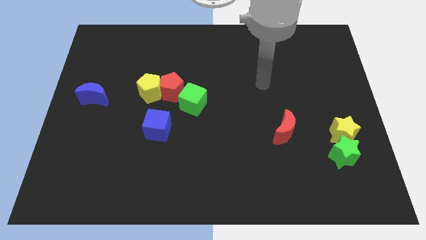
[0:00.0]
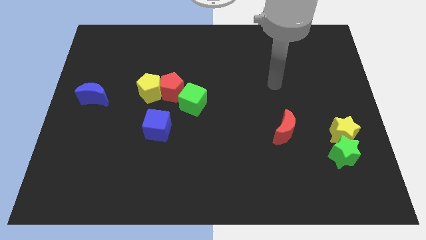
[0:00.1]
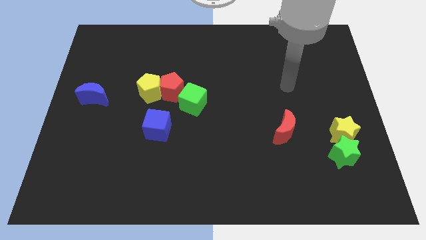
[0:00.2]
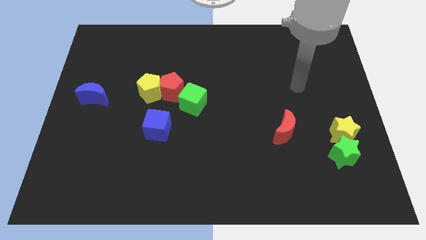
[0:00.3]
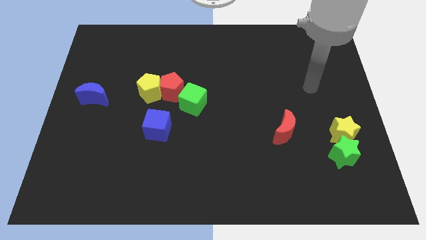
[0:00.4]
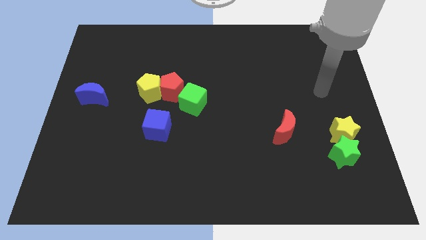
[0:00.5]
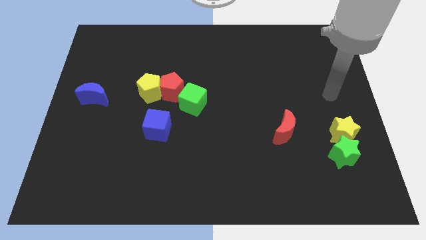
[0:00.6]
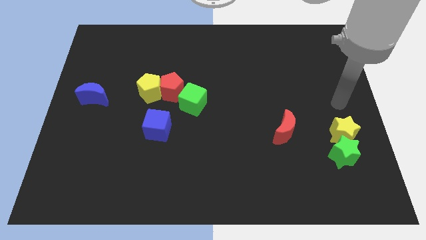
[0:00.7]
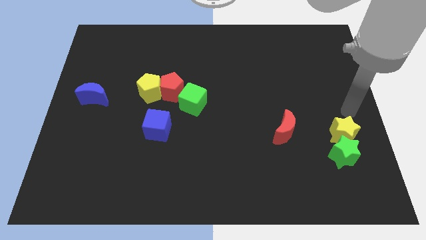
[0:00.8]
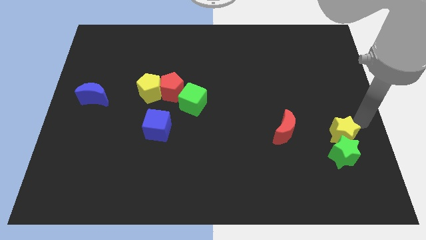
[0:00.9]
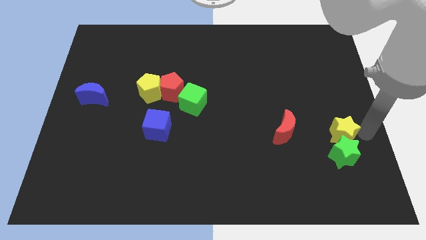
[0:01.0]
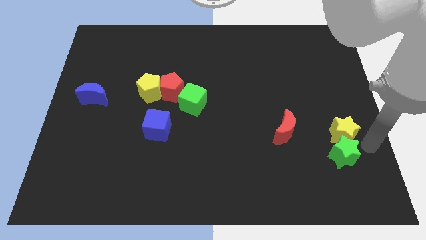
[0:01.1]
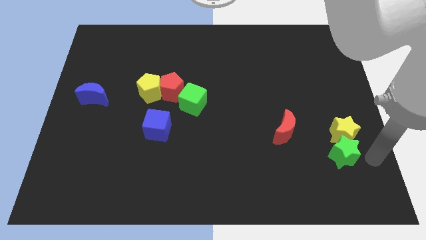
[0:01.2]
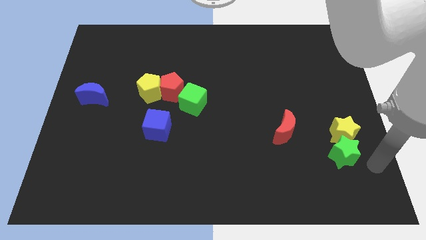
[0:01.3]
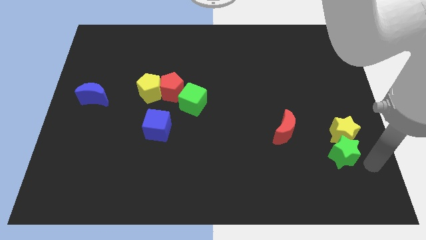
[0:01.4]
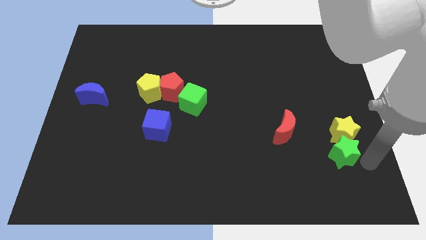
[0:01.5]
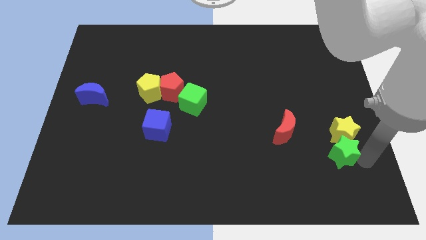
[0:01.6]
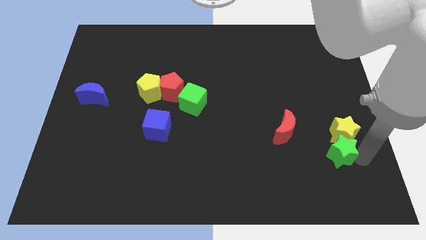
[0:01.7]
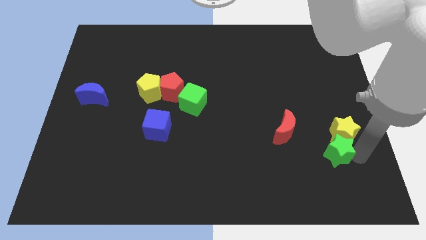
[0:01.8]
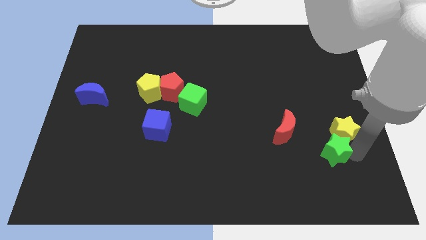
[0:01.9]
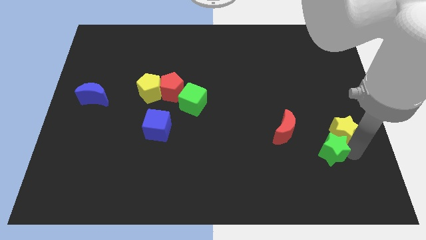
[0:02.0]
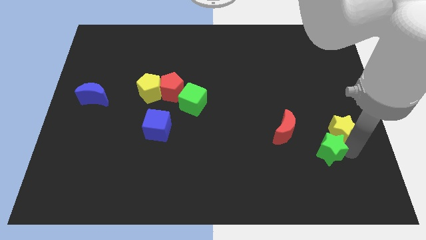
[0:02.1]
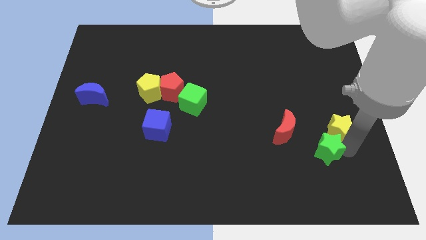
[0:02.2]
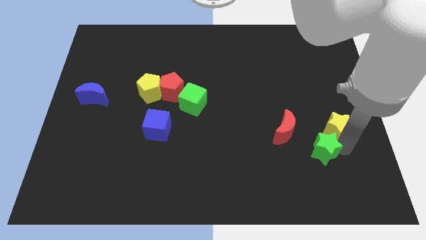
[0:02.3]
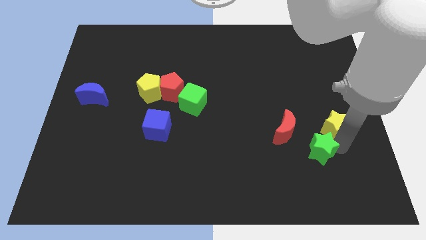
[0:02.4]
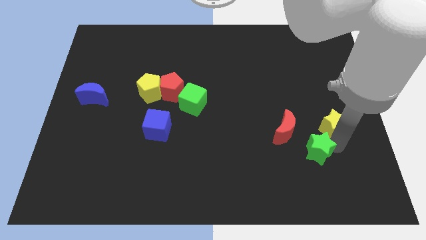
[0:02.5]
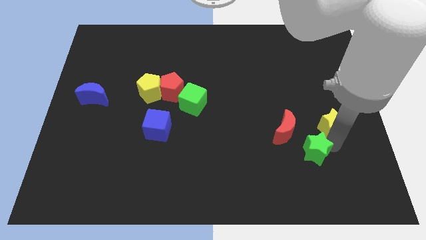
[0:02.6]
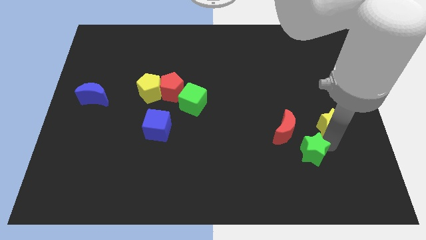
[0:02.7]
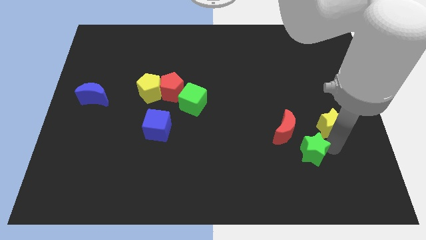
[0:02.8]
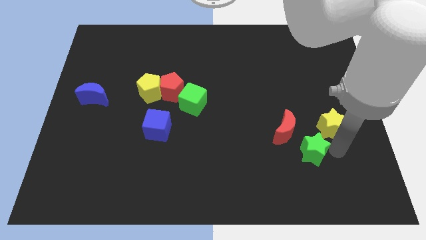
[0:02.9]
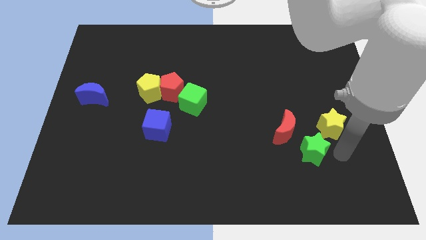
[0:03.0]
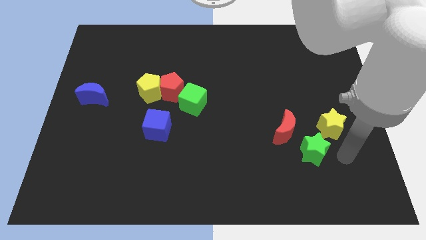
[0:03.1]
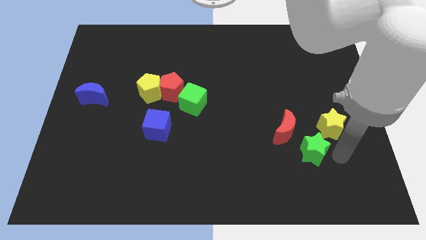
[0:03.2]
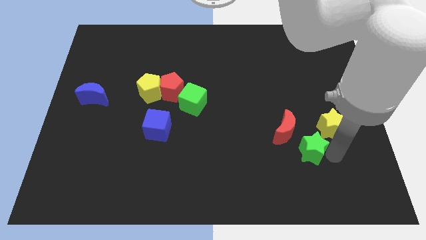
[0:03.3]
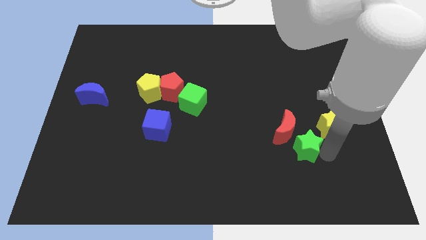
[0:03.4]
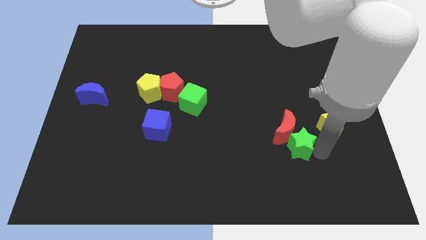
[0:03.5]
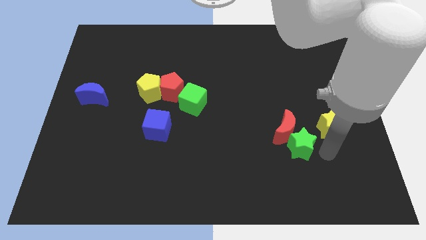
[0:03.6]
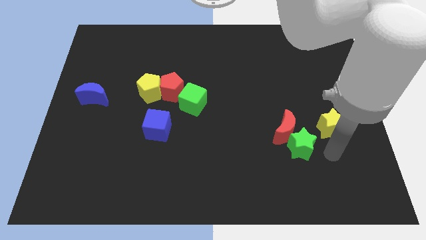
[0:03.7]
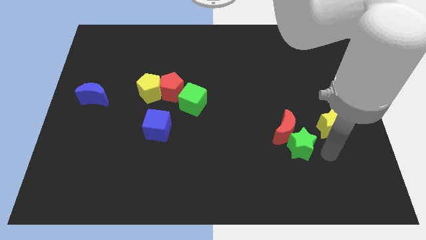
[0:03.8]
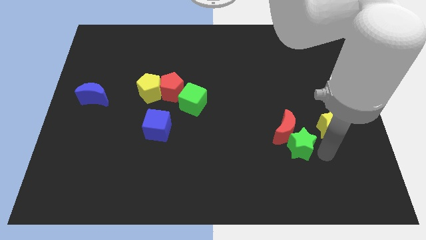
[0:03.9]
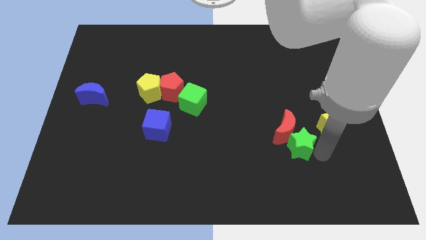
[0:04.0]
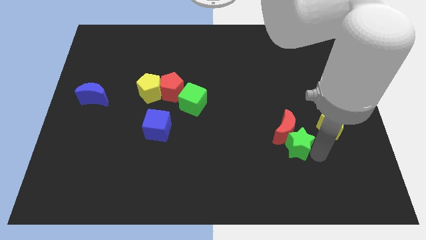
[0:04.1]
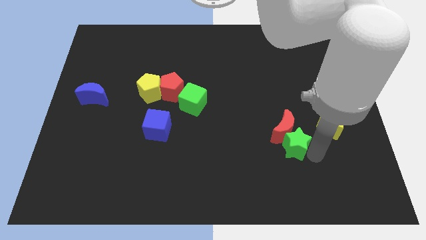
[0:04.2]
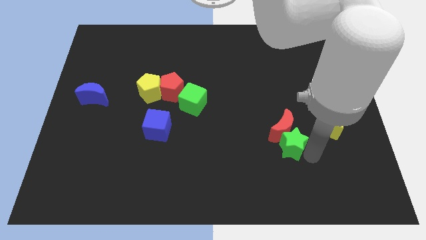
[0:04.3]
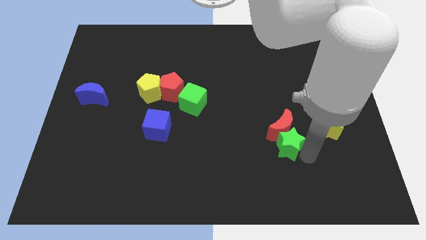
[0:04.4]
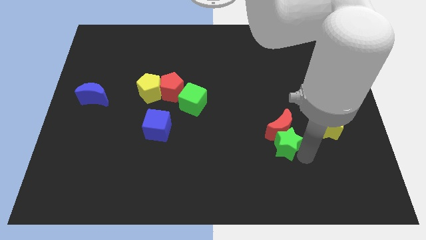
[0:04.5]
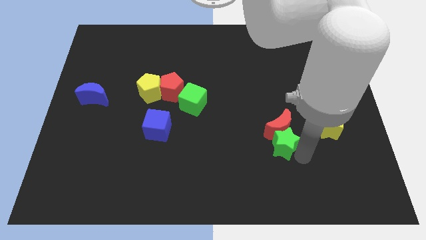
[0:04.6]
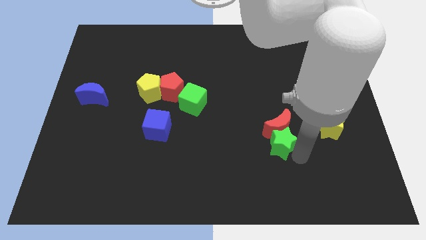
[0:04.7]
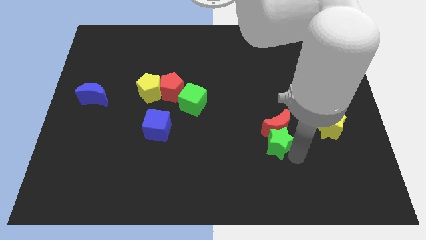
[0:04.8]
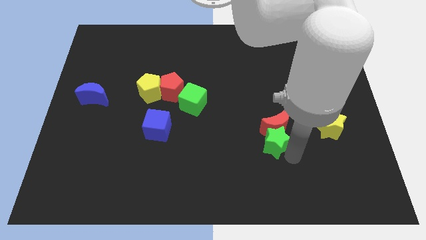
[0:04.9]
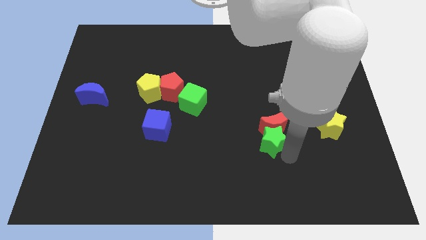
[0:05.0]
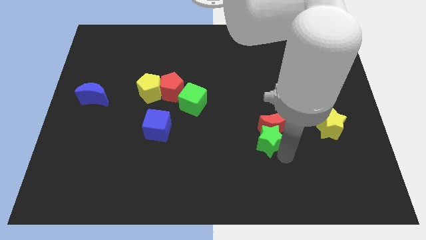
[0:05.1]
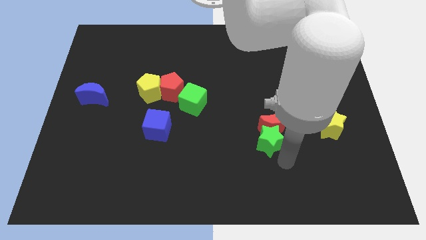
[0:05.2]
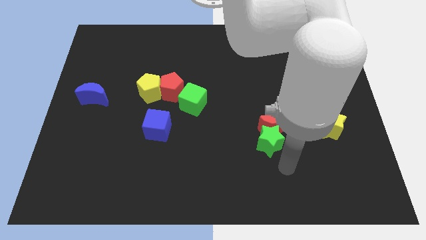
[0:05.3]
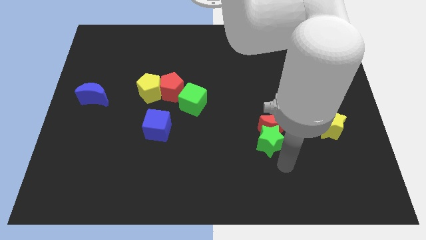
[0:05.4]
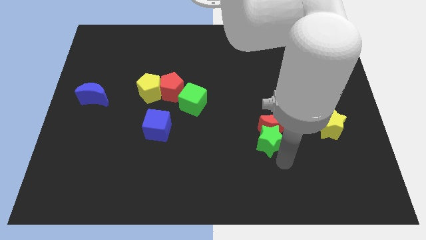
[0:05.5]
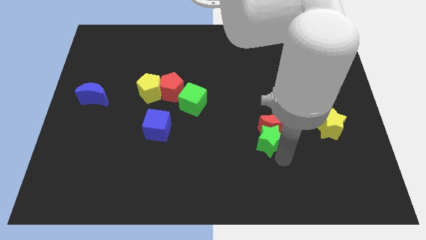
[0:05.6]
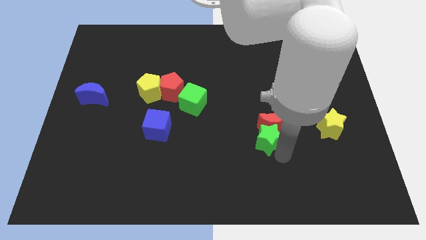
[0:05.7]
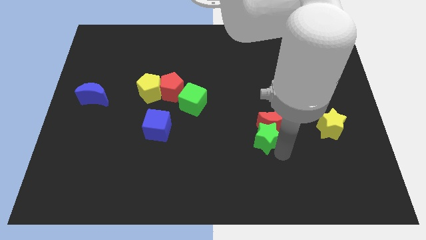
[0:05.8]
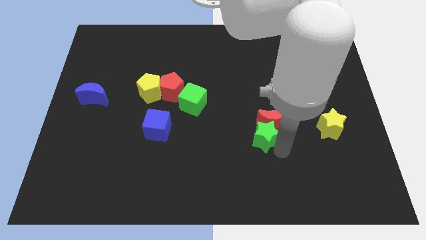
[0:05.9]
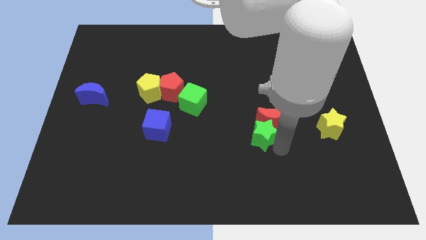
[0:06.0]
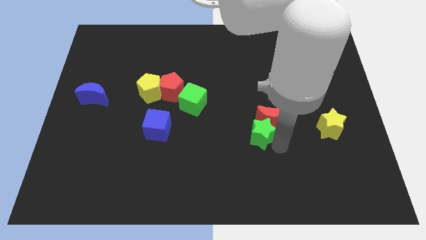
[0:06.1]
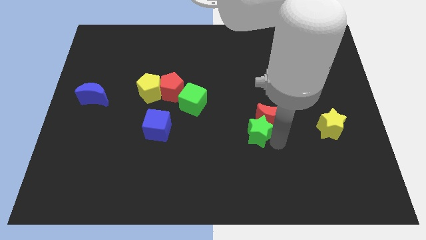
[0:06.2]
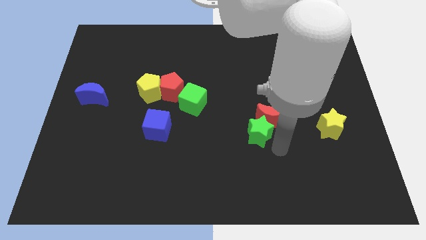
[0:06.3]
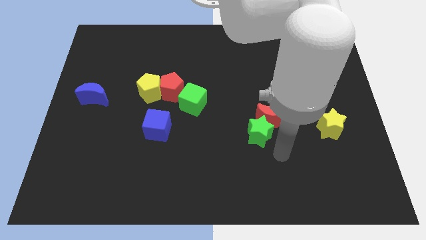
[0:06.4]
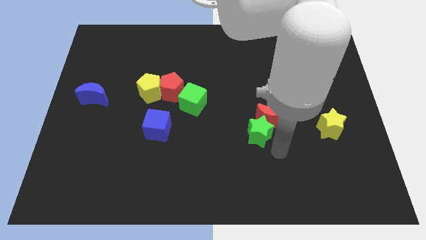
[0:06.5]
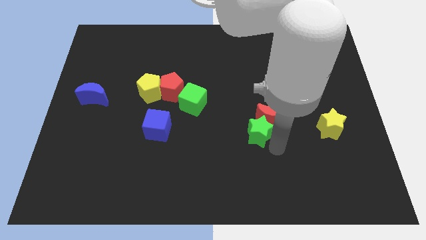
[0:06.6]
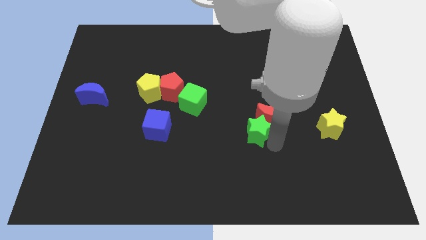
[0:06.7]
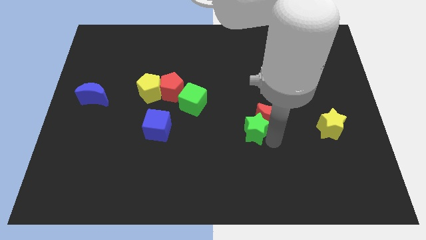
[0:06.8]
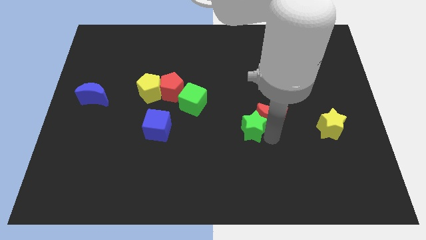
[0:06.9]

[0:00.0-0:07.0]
push the green star to the middle of the board
